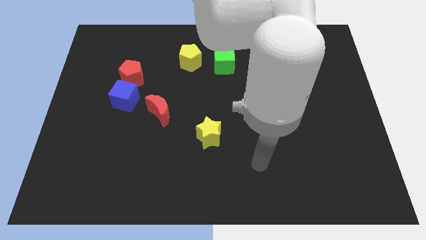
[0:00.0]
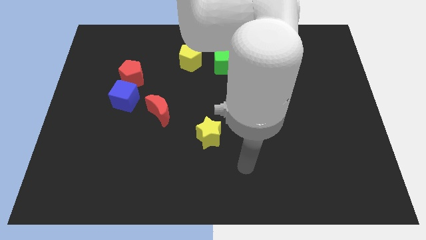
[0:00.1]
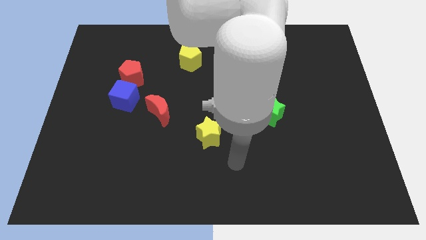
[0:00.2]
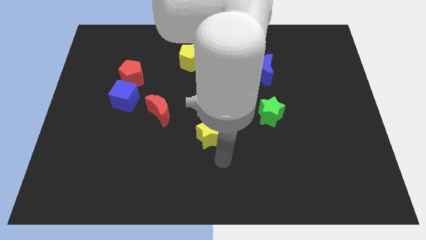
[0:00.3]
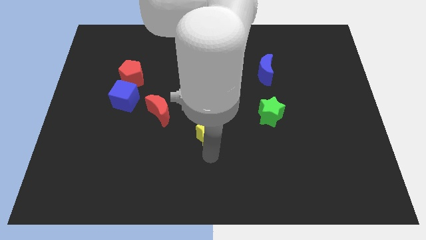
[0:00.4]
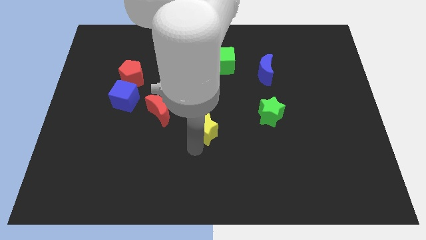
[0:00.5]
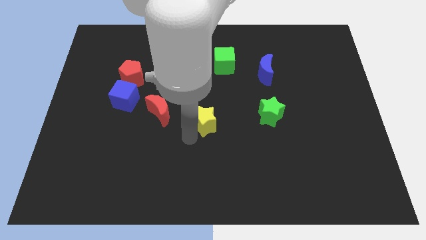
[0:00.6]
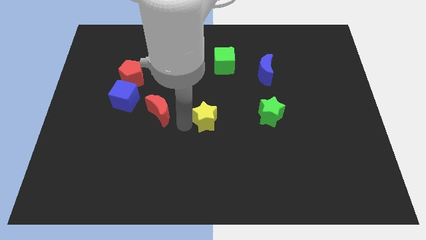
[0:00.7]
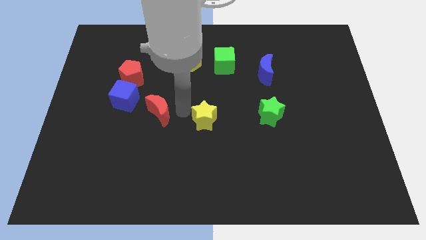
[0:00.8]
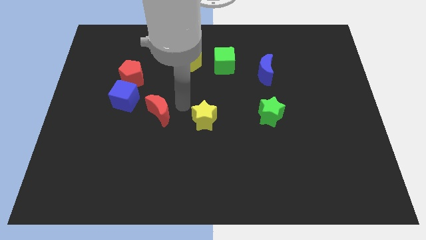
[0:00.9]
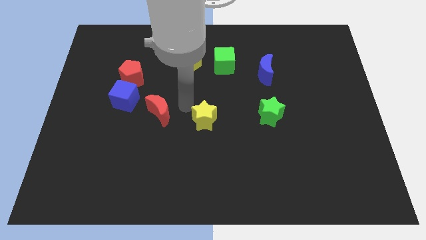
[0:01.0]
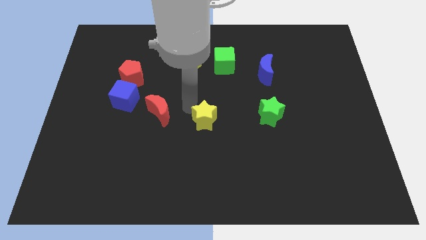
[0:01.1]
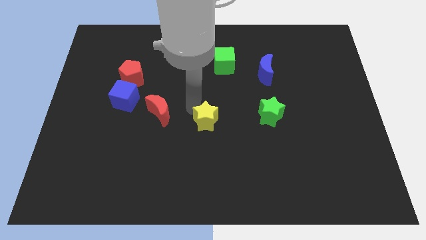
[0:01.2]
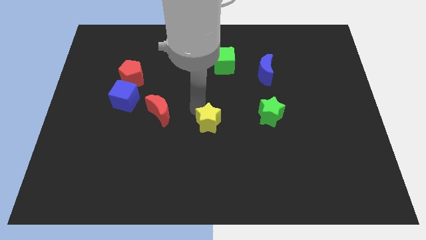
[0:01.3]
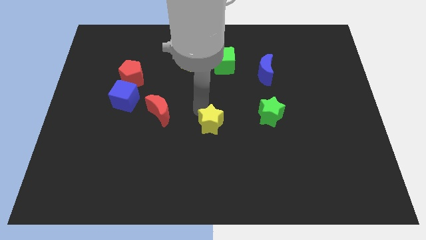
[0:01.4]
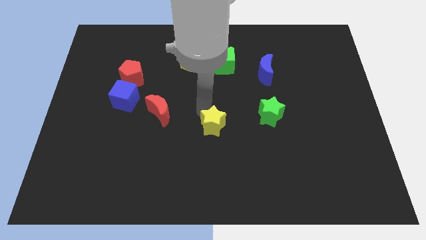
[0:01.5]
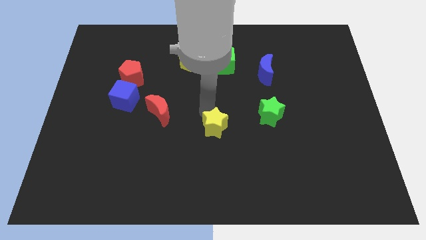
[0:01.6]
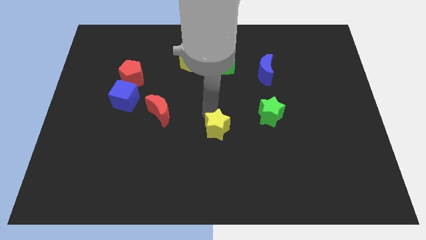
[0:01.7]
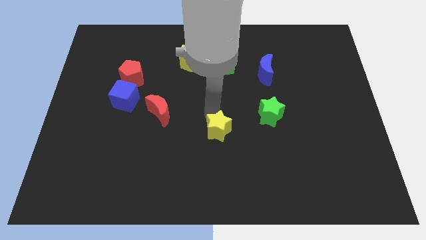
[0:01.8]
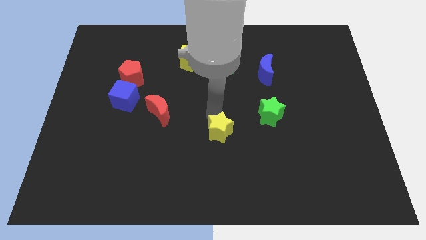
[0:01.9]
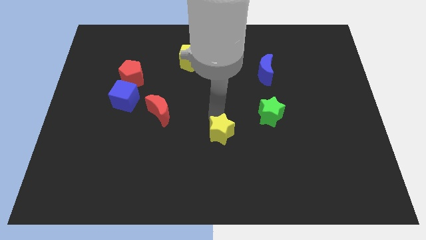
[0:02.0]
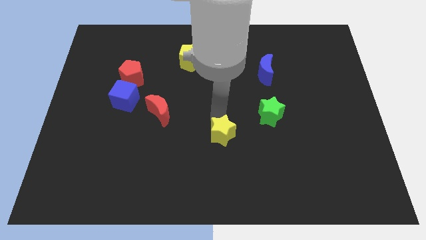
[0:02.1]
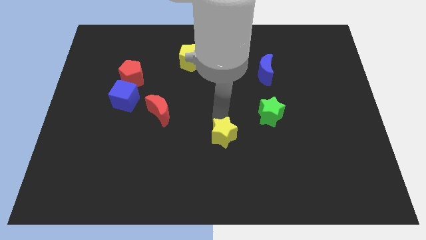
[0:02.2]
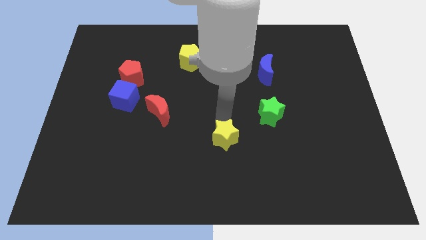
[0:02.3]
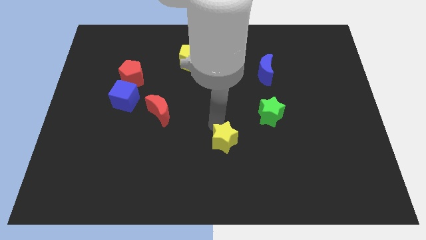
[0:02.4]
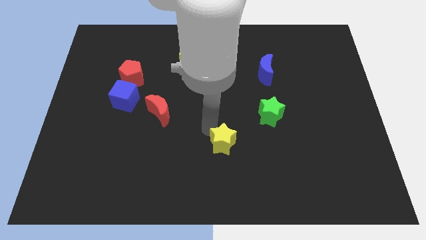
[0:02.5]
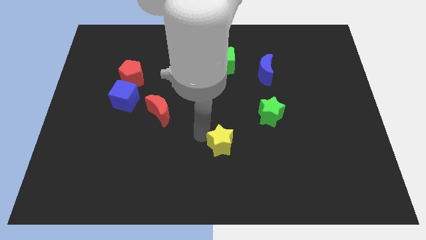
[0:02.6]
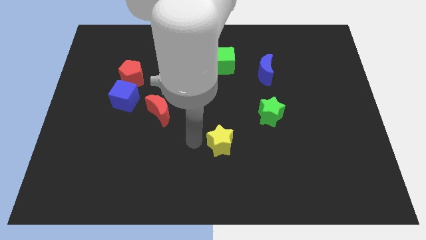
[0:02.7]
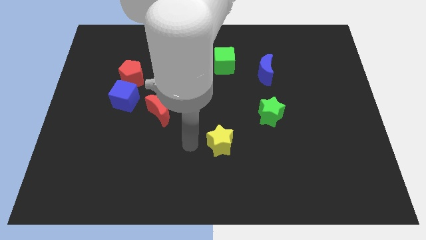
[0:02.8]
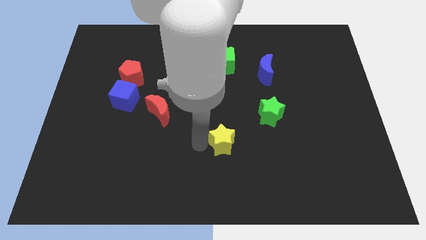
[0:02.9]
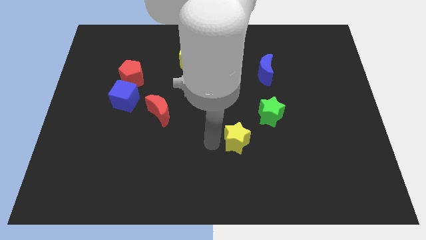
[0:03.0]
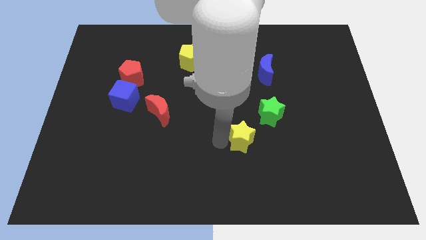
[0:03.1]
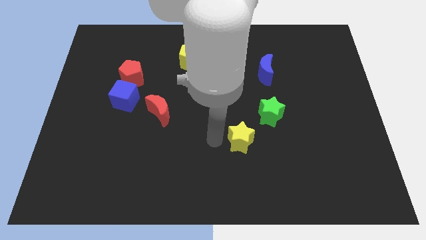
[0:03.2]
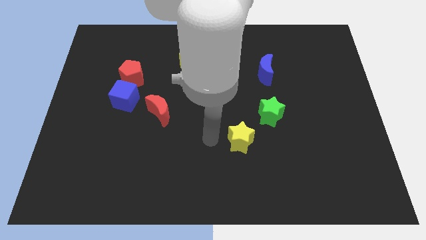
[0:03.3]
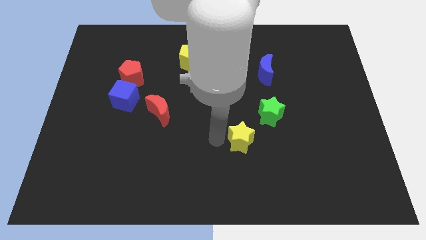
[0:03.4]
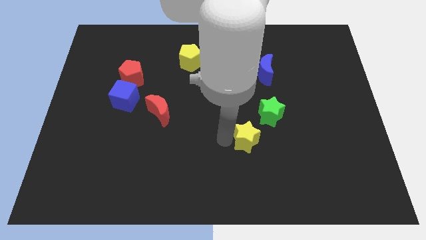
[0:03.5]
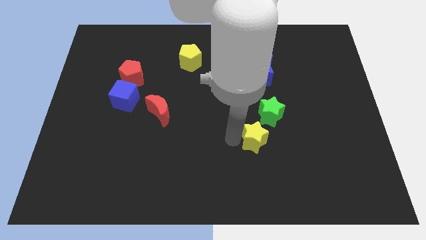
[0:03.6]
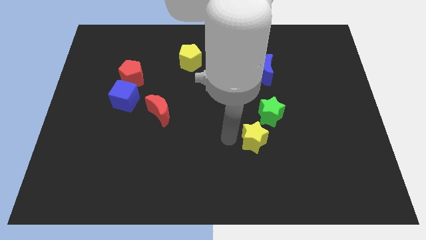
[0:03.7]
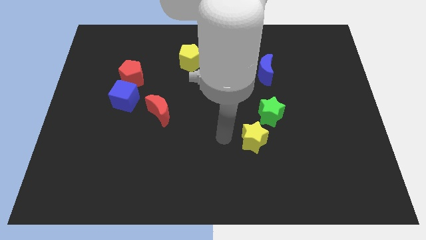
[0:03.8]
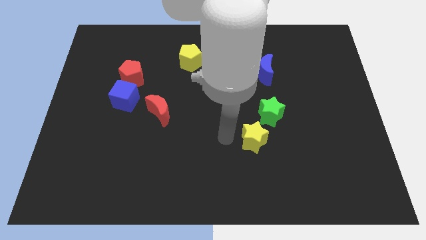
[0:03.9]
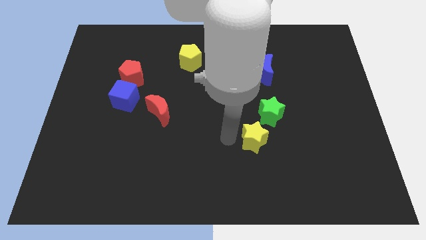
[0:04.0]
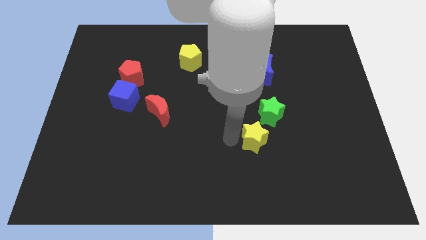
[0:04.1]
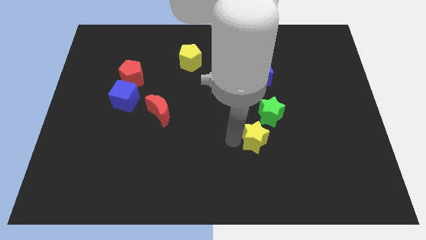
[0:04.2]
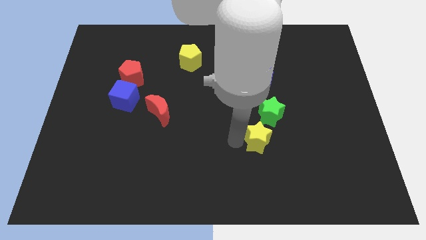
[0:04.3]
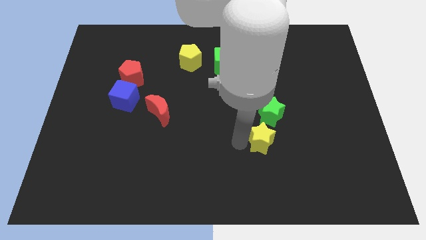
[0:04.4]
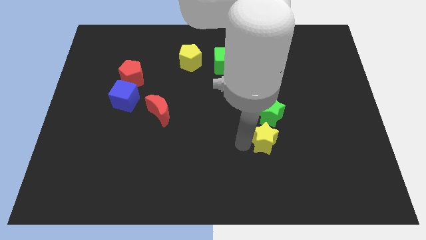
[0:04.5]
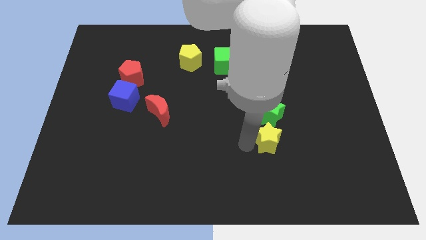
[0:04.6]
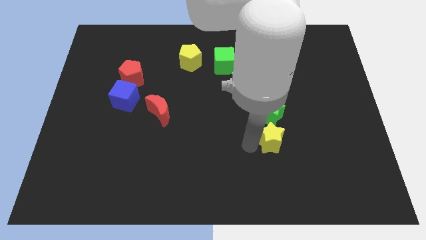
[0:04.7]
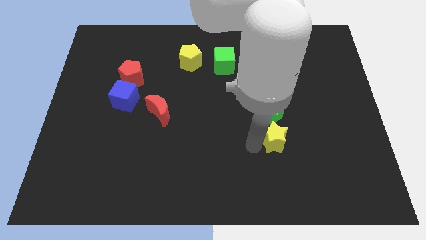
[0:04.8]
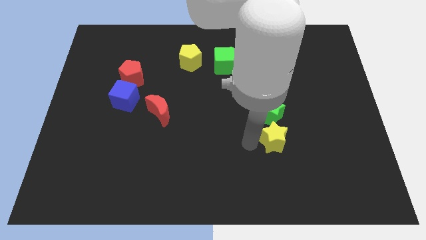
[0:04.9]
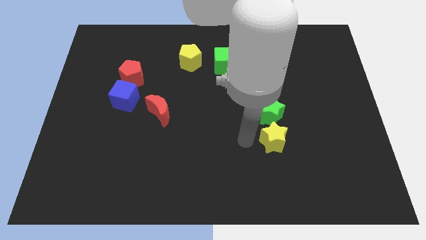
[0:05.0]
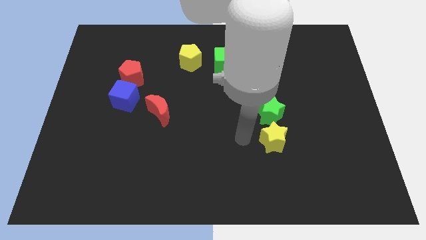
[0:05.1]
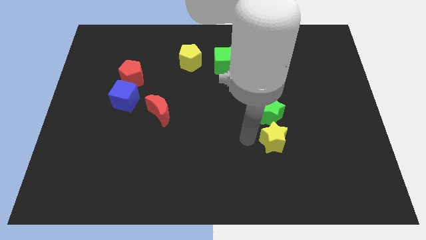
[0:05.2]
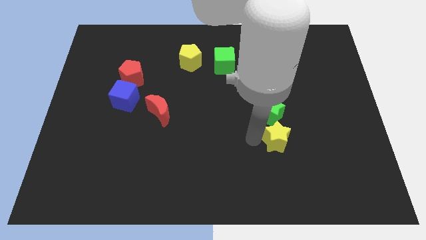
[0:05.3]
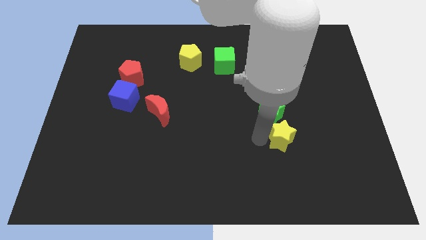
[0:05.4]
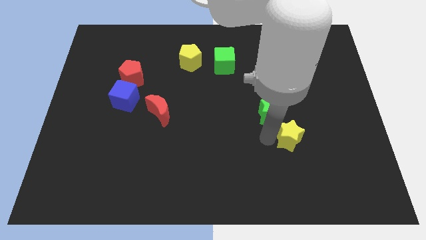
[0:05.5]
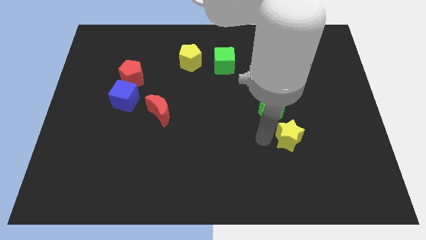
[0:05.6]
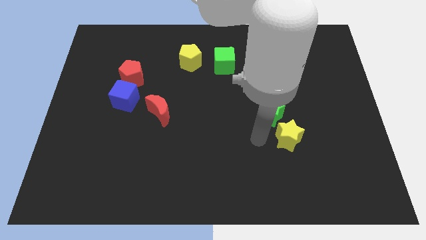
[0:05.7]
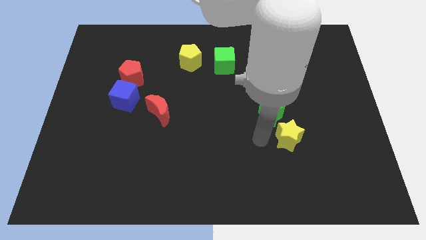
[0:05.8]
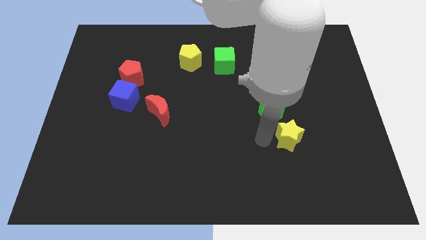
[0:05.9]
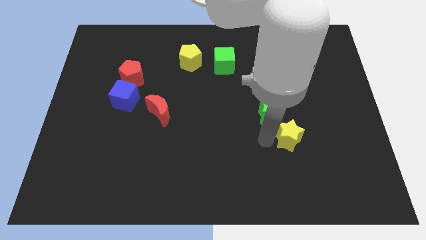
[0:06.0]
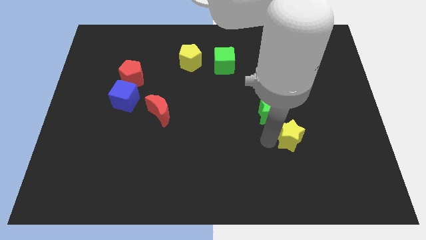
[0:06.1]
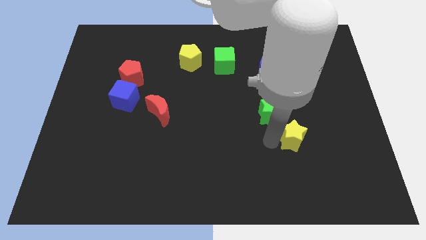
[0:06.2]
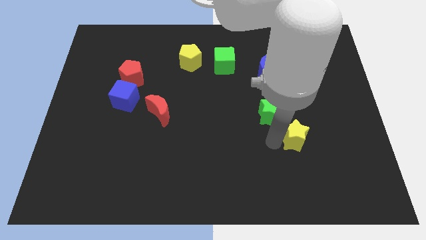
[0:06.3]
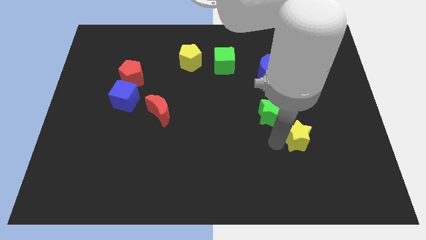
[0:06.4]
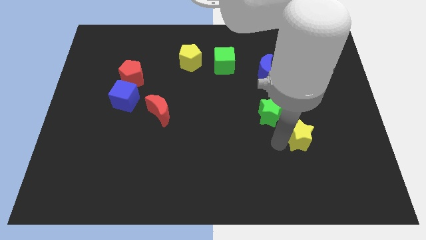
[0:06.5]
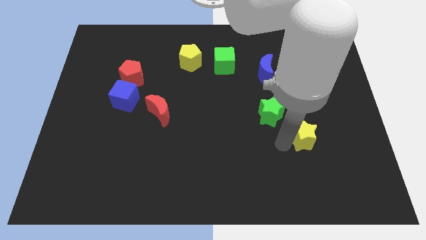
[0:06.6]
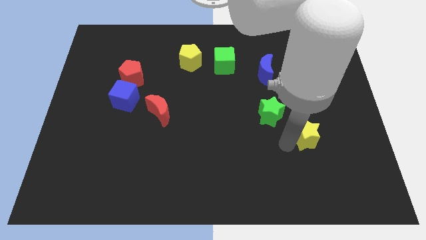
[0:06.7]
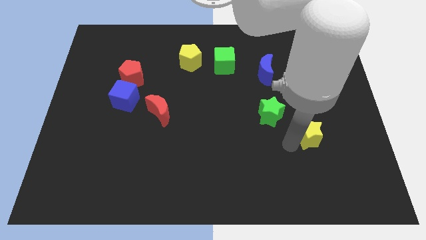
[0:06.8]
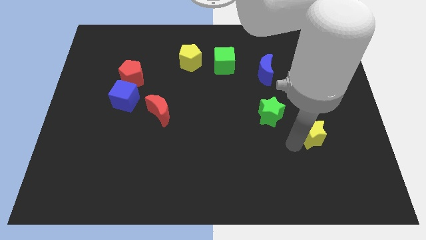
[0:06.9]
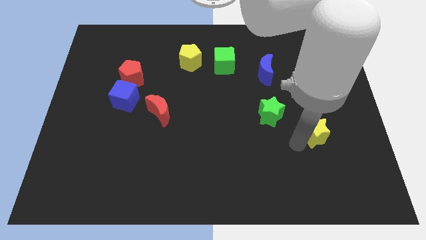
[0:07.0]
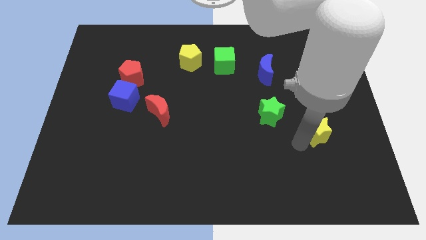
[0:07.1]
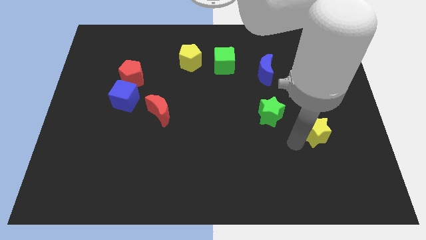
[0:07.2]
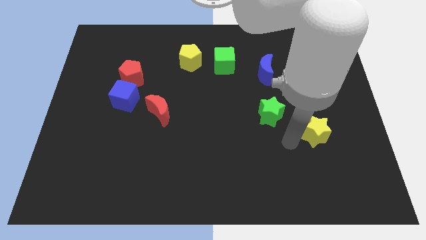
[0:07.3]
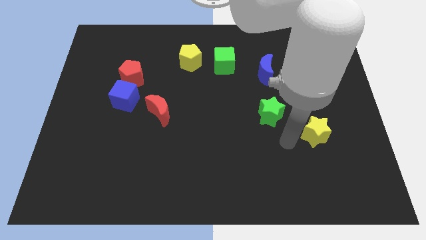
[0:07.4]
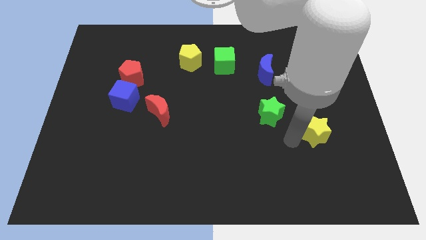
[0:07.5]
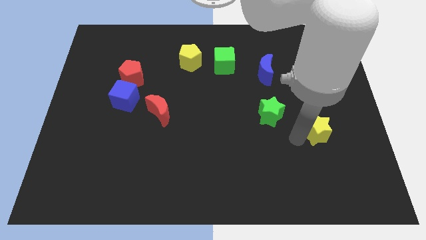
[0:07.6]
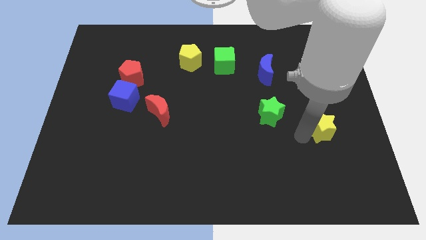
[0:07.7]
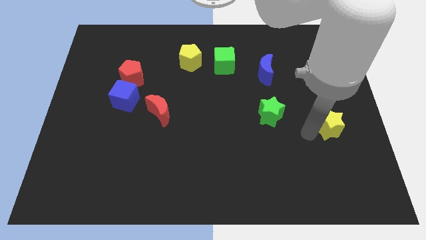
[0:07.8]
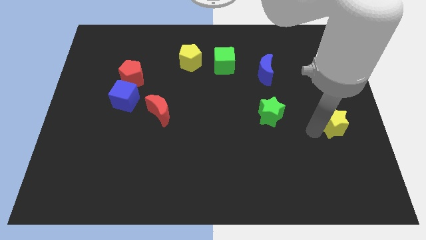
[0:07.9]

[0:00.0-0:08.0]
move the yellow star to the center right
